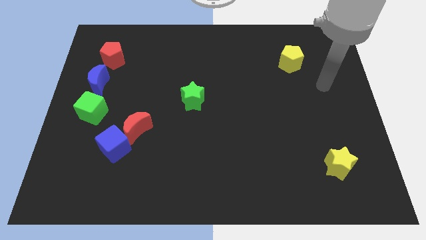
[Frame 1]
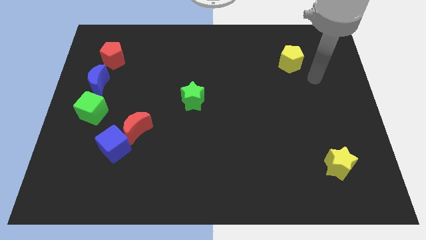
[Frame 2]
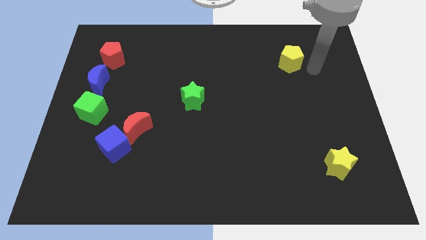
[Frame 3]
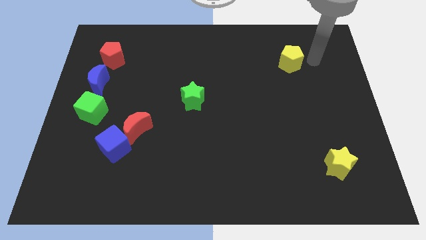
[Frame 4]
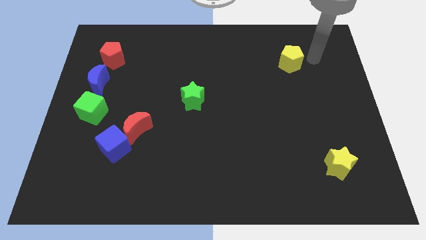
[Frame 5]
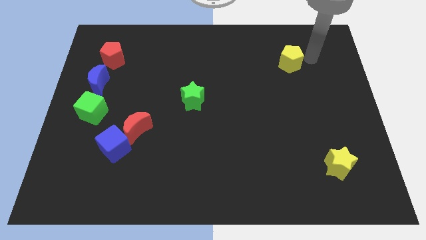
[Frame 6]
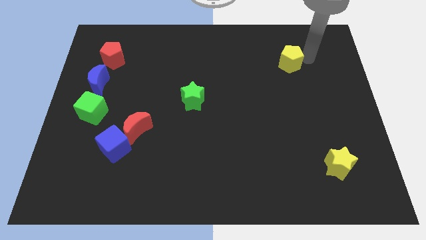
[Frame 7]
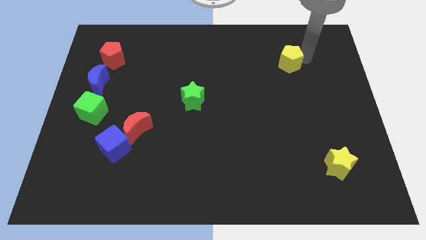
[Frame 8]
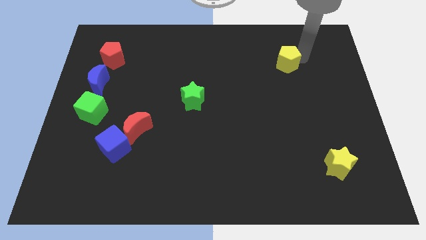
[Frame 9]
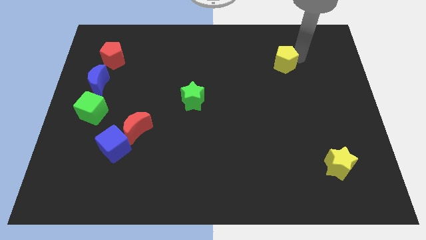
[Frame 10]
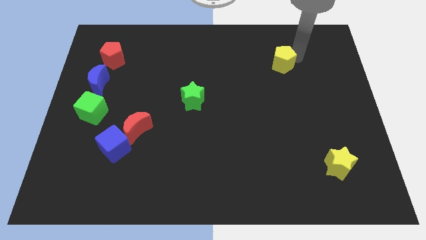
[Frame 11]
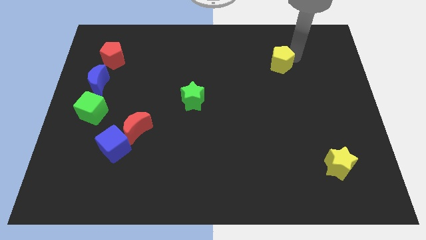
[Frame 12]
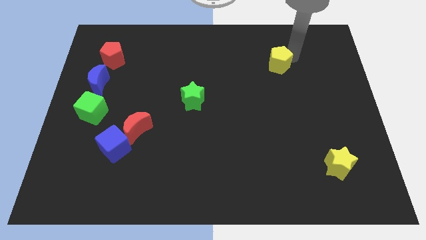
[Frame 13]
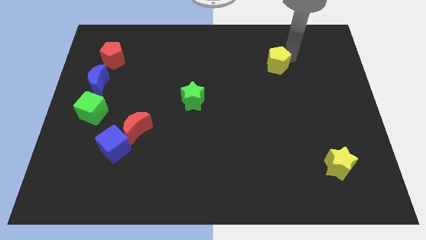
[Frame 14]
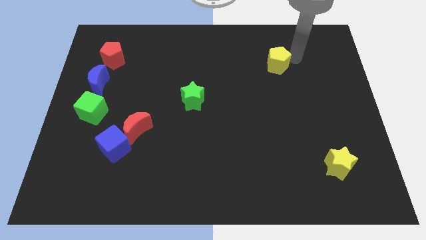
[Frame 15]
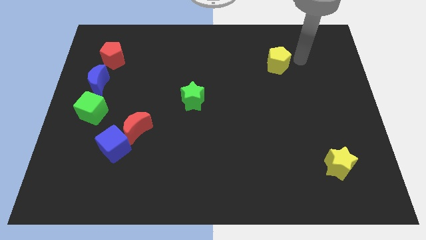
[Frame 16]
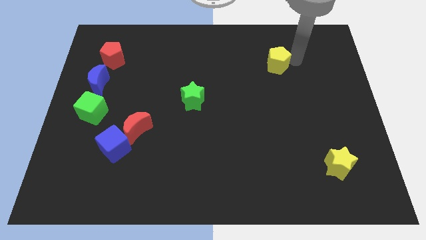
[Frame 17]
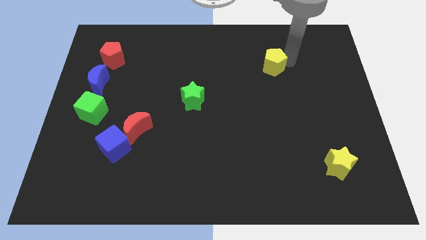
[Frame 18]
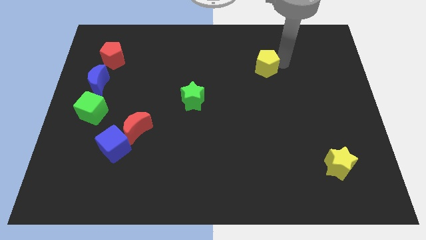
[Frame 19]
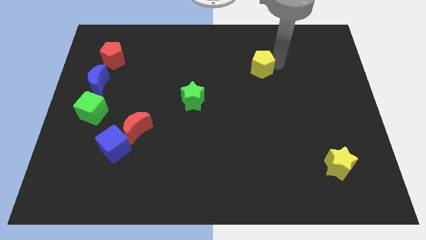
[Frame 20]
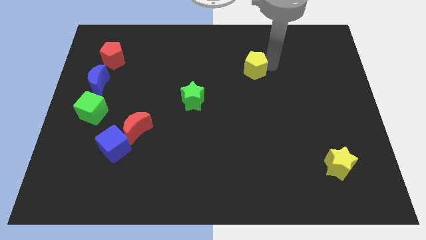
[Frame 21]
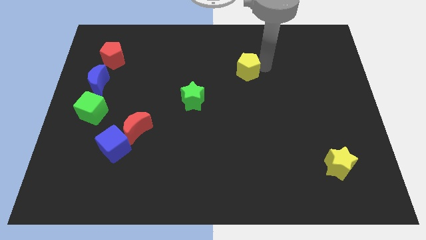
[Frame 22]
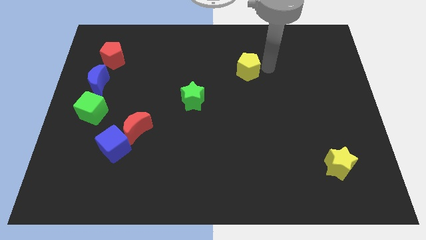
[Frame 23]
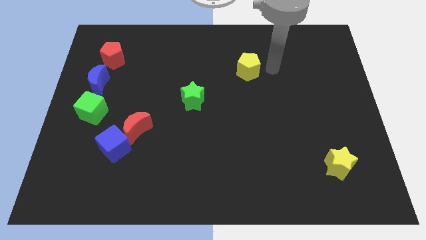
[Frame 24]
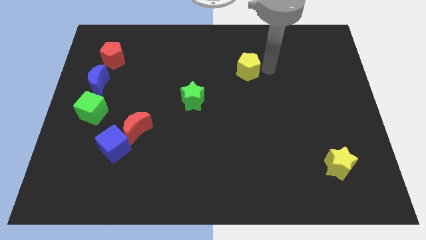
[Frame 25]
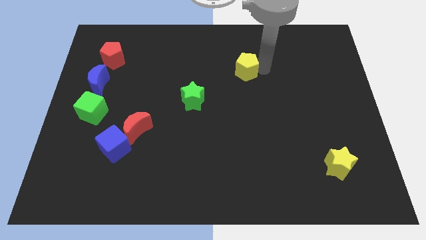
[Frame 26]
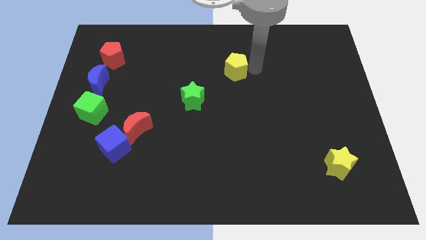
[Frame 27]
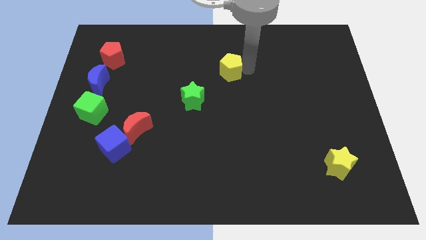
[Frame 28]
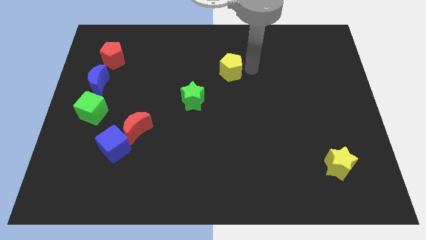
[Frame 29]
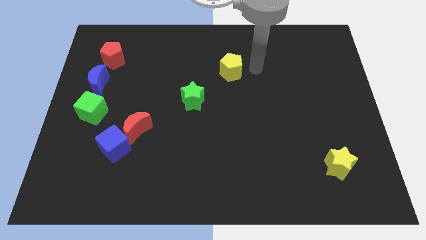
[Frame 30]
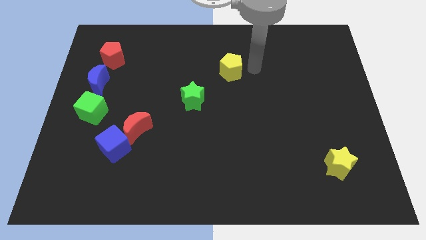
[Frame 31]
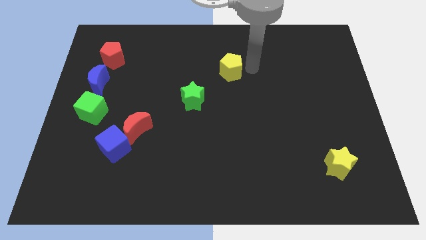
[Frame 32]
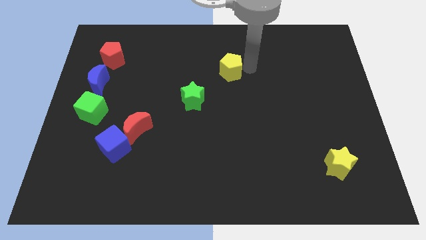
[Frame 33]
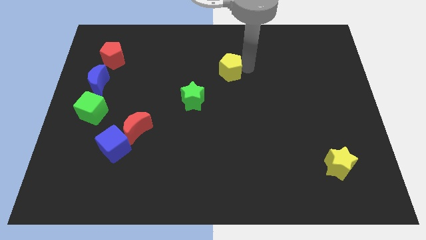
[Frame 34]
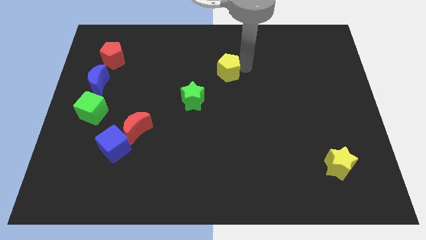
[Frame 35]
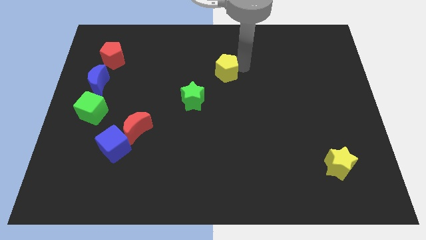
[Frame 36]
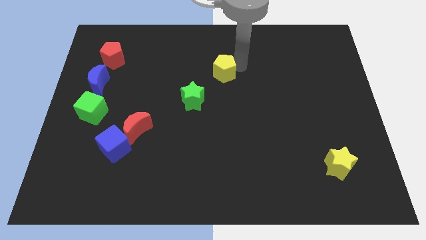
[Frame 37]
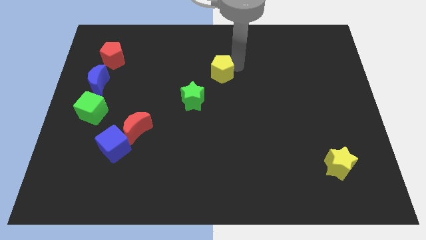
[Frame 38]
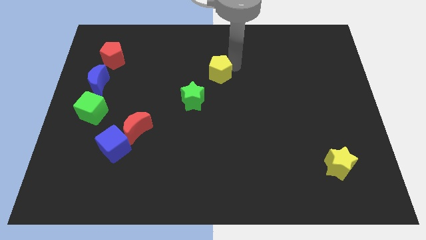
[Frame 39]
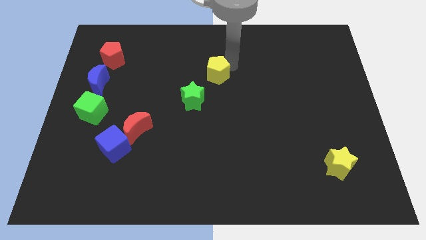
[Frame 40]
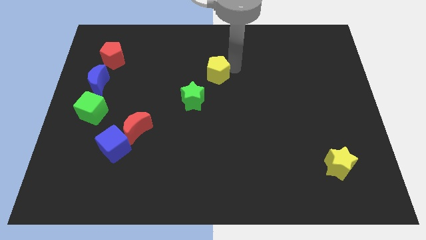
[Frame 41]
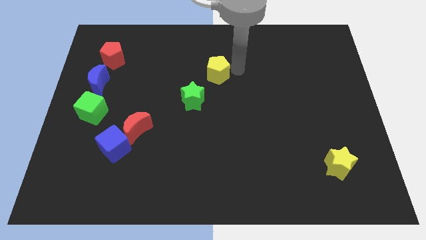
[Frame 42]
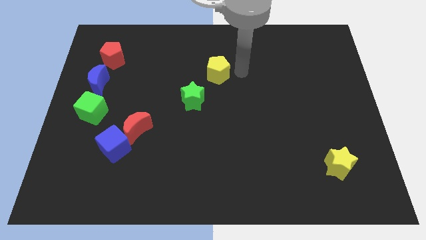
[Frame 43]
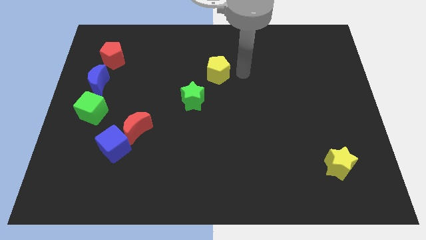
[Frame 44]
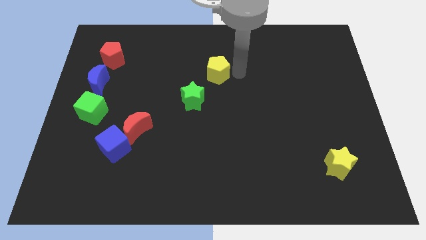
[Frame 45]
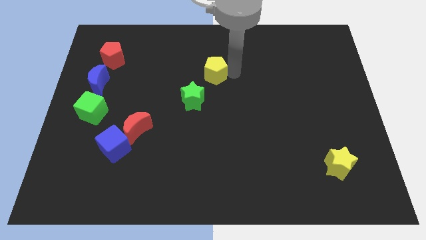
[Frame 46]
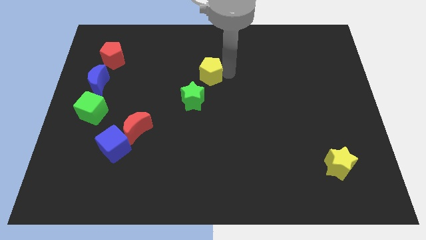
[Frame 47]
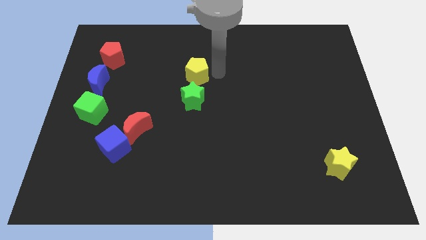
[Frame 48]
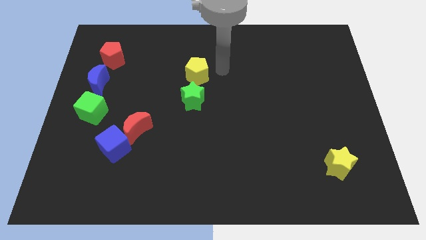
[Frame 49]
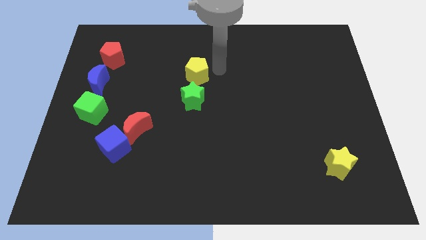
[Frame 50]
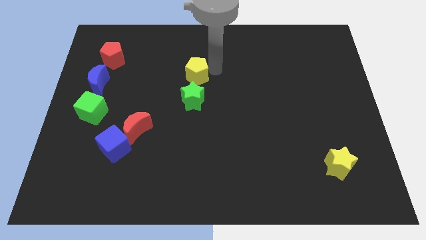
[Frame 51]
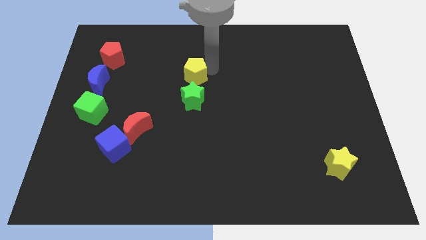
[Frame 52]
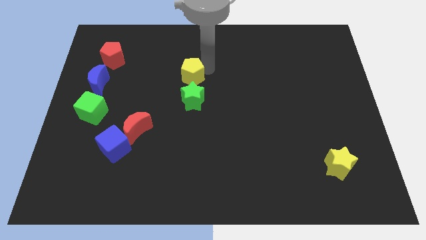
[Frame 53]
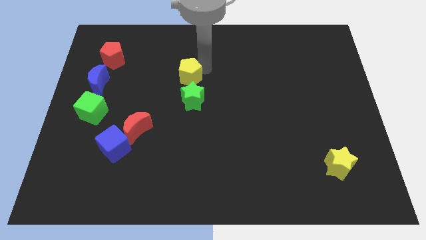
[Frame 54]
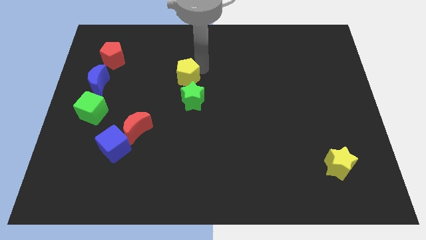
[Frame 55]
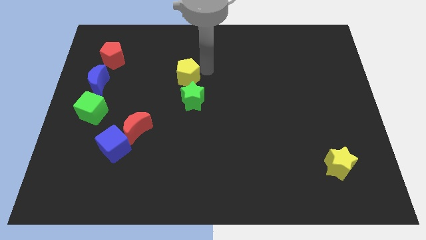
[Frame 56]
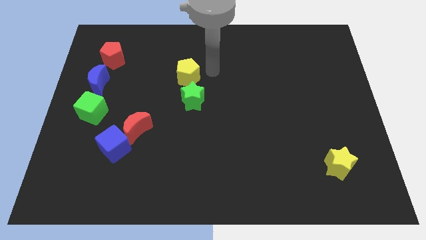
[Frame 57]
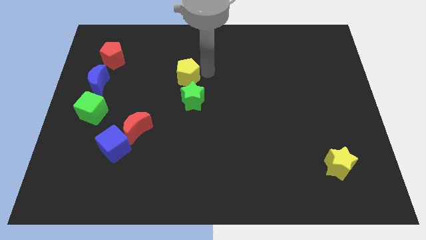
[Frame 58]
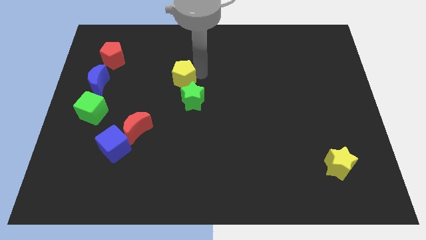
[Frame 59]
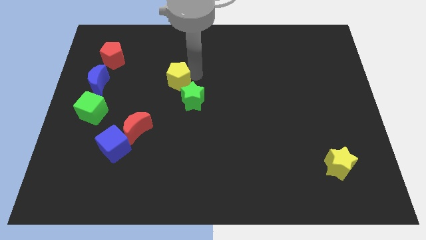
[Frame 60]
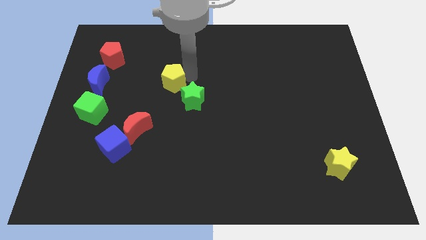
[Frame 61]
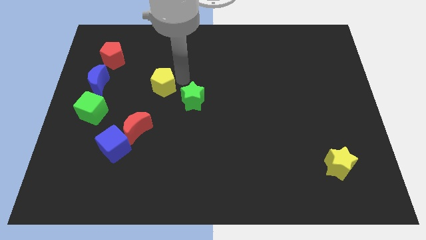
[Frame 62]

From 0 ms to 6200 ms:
push the yellow pentagon to the right of the blue moon
